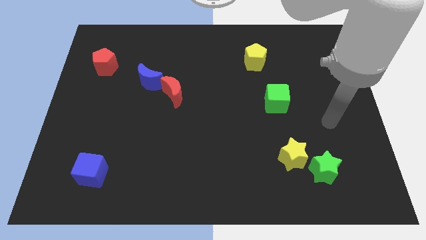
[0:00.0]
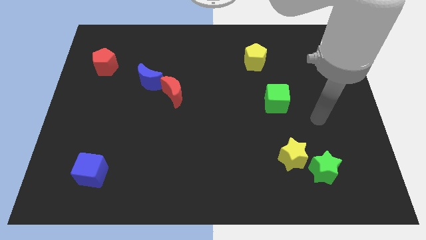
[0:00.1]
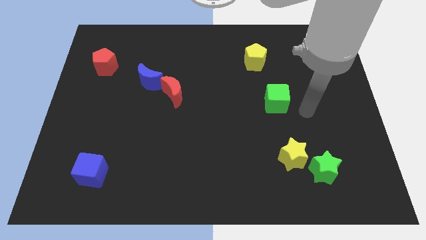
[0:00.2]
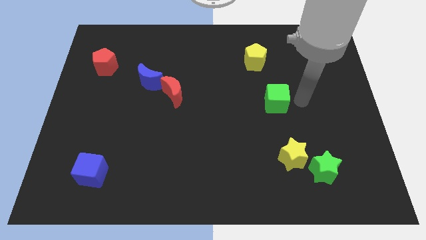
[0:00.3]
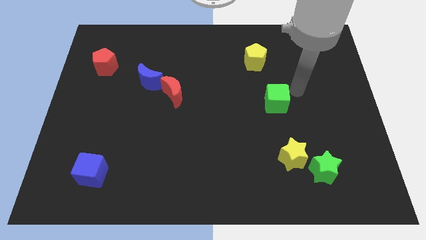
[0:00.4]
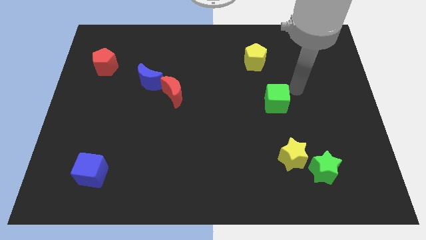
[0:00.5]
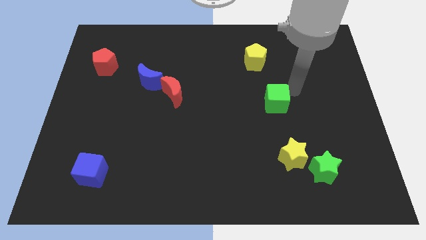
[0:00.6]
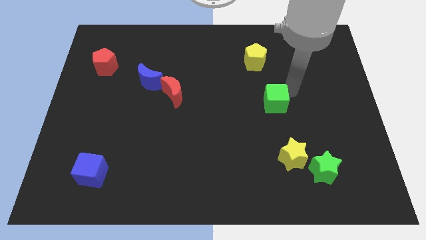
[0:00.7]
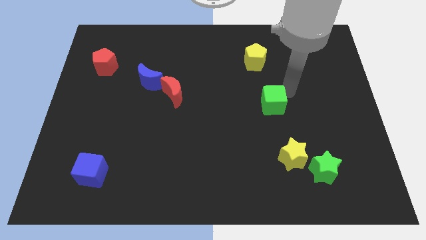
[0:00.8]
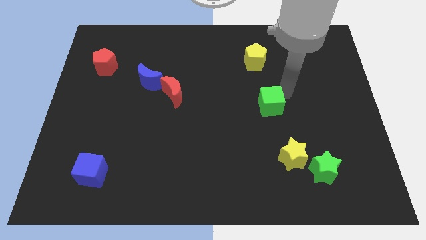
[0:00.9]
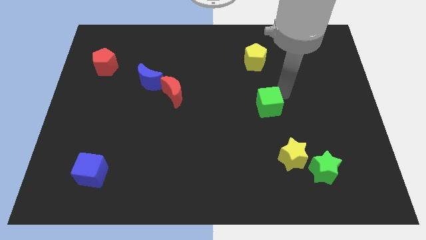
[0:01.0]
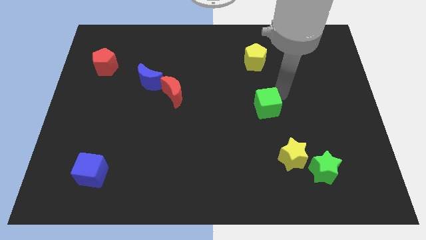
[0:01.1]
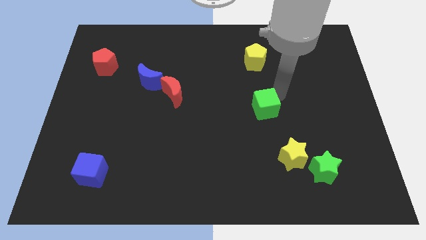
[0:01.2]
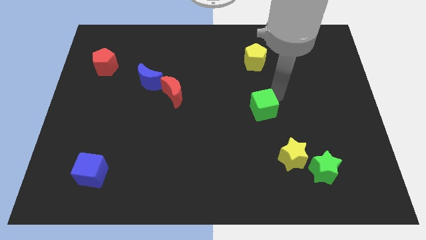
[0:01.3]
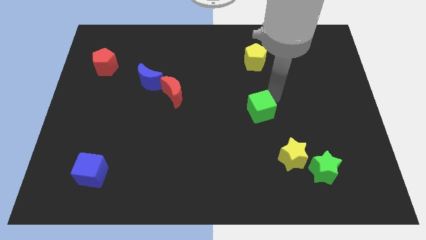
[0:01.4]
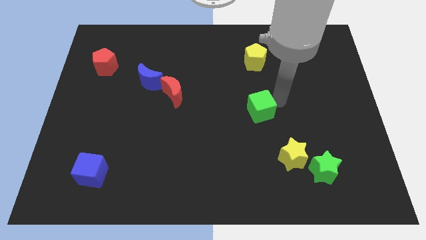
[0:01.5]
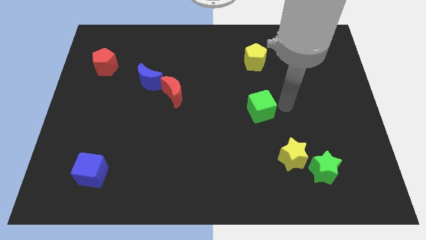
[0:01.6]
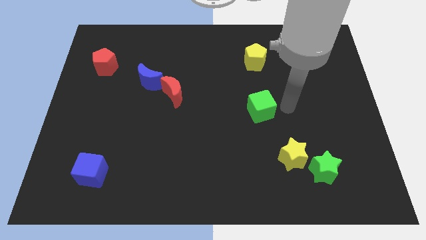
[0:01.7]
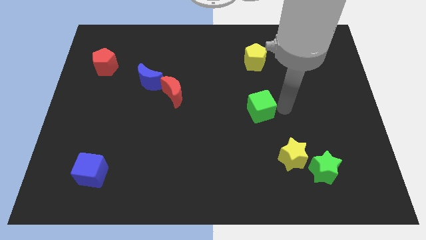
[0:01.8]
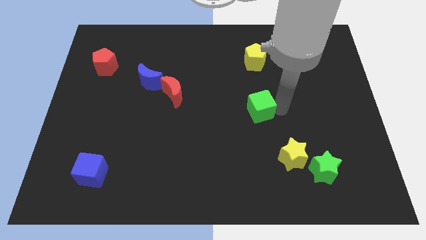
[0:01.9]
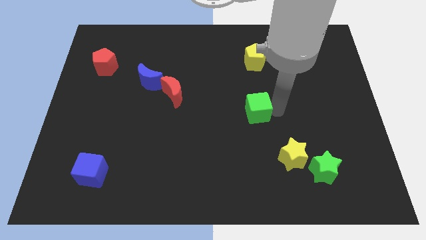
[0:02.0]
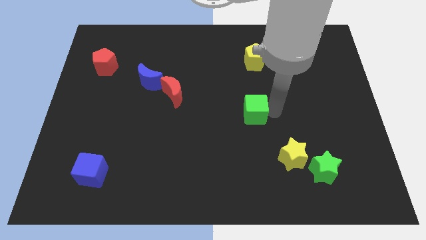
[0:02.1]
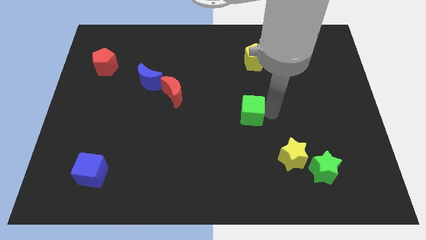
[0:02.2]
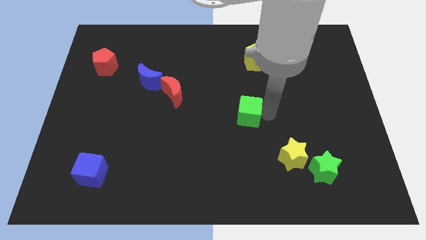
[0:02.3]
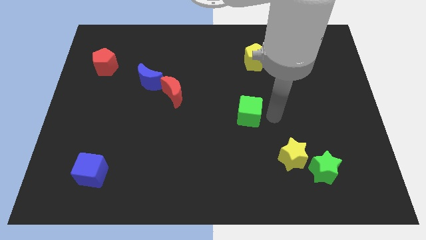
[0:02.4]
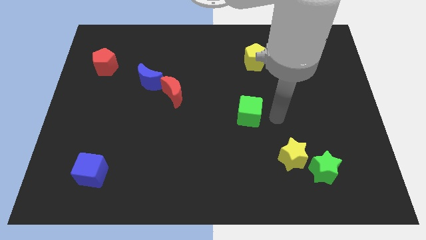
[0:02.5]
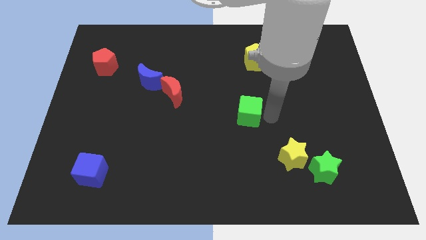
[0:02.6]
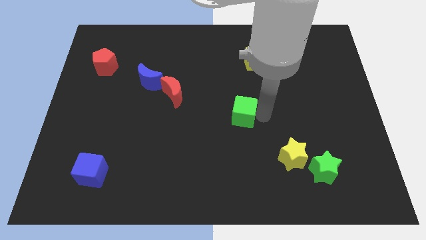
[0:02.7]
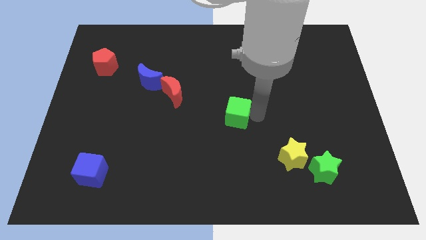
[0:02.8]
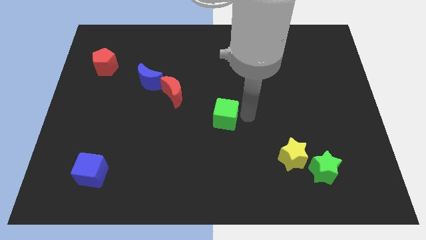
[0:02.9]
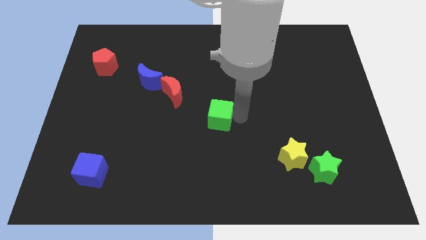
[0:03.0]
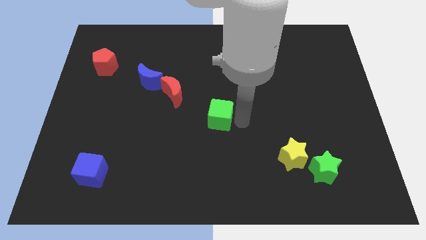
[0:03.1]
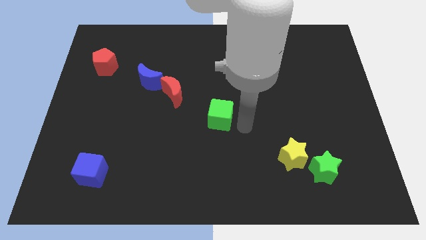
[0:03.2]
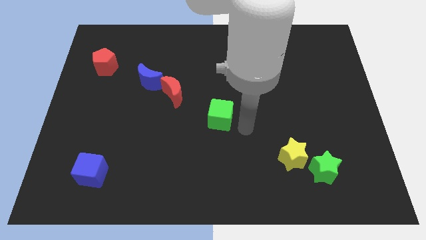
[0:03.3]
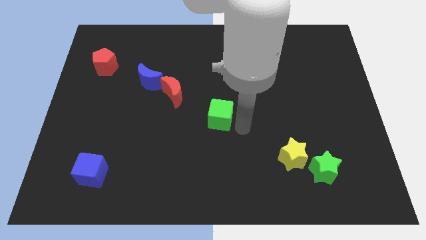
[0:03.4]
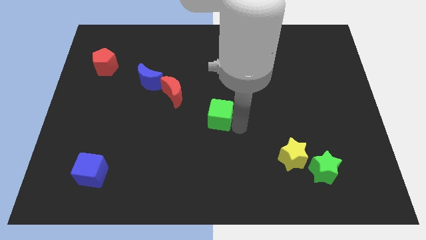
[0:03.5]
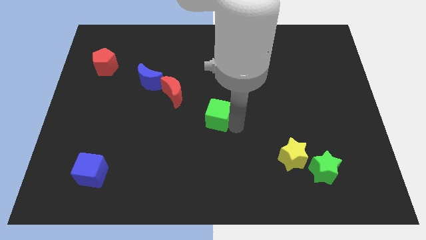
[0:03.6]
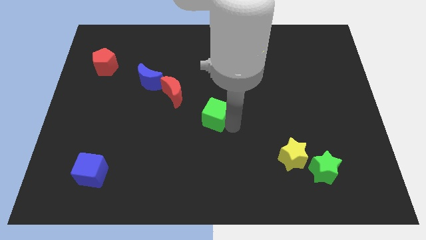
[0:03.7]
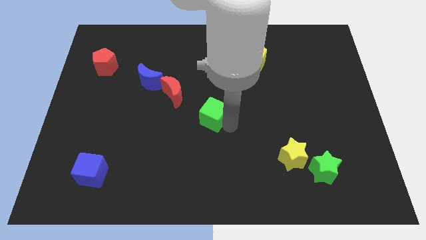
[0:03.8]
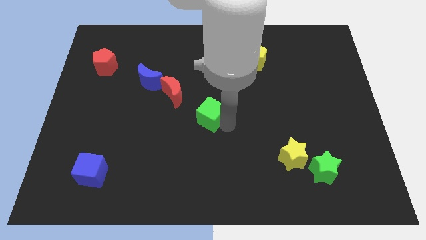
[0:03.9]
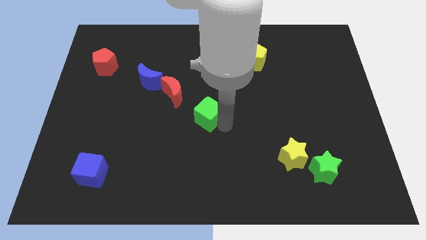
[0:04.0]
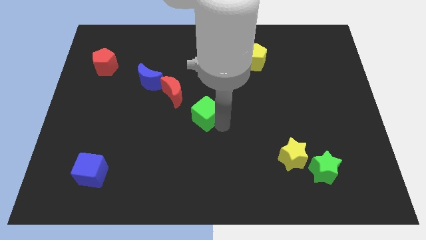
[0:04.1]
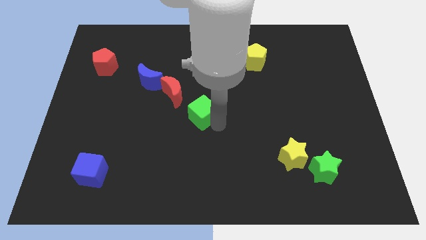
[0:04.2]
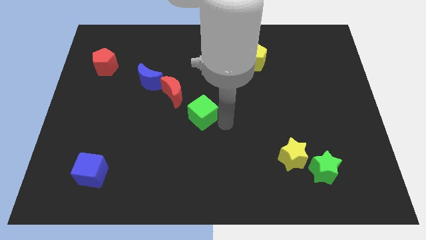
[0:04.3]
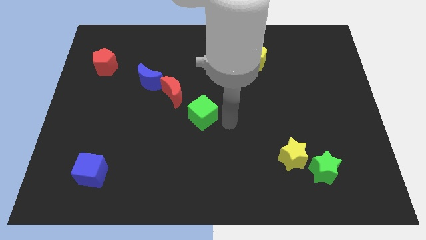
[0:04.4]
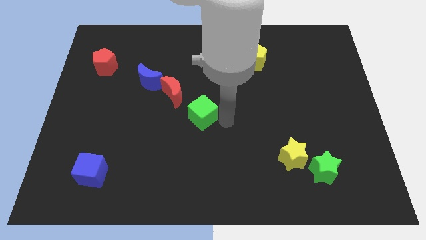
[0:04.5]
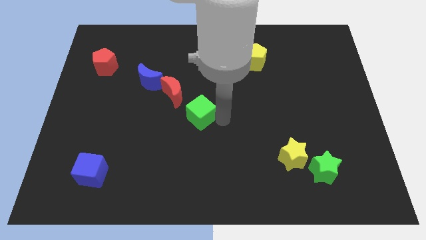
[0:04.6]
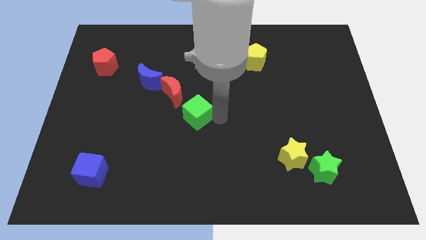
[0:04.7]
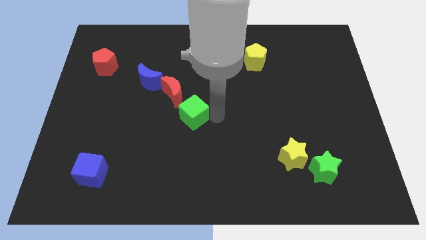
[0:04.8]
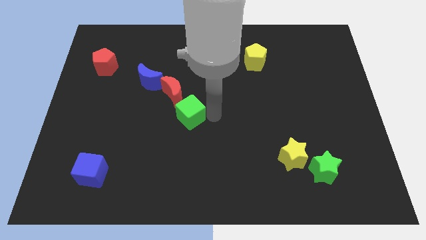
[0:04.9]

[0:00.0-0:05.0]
slide the green cube left

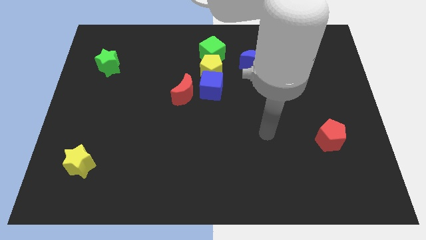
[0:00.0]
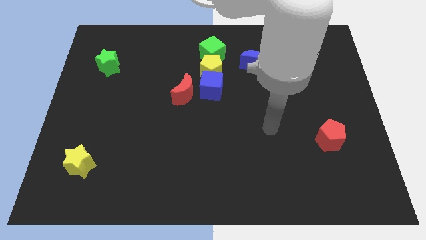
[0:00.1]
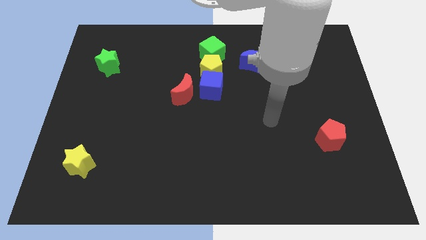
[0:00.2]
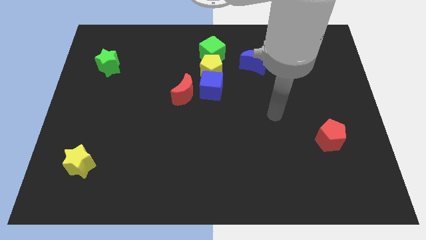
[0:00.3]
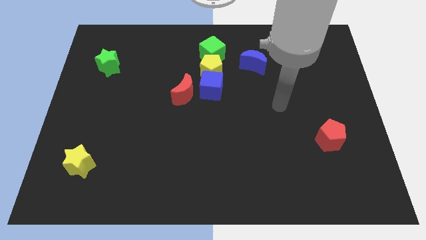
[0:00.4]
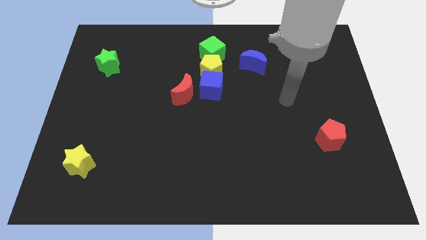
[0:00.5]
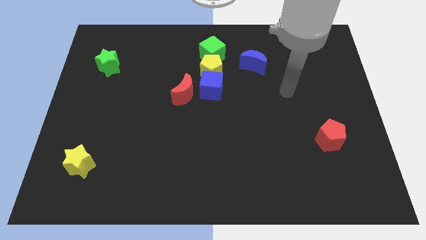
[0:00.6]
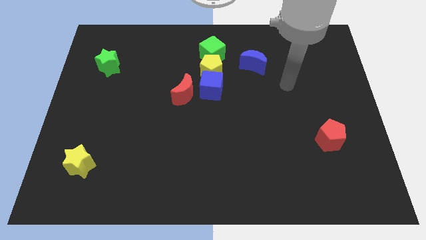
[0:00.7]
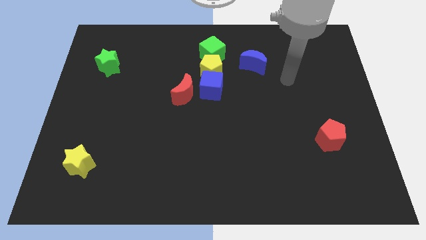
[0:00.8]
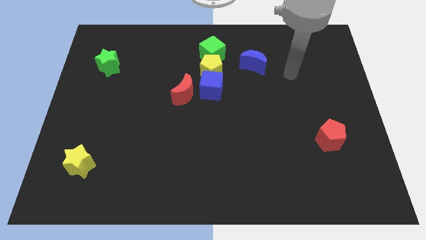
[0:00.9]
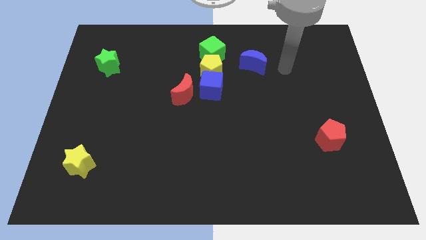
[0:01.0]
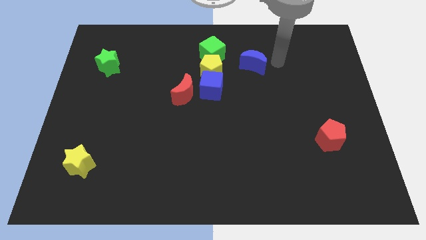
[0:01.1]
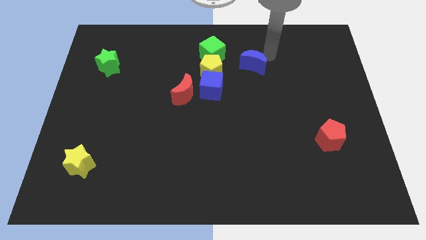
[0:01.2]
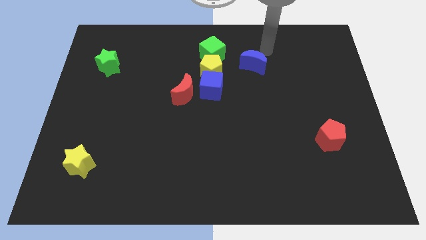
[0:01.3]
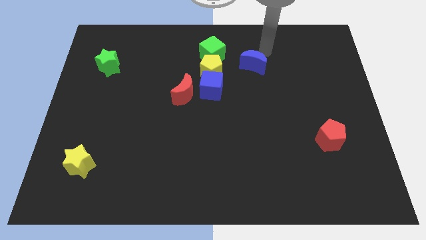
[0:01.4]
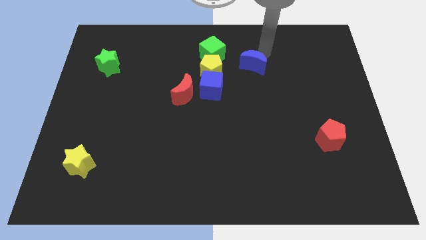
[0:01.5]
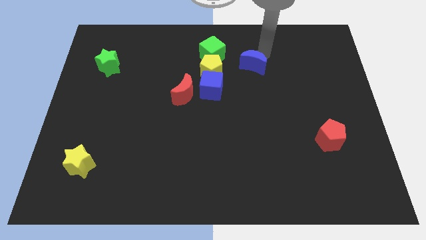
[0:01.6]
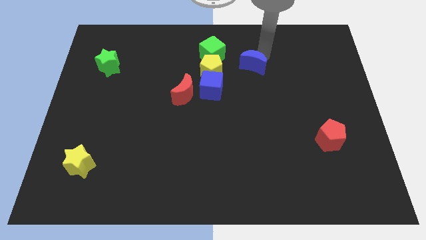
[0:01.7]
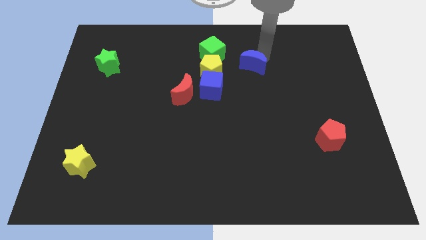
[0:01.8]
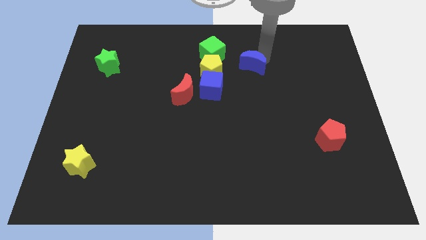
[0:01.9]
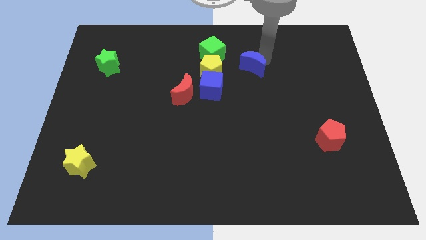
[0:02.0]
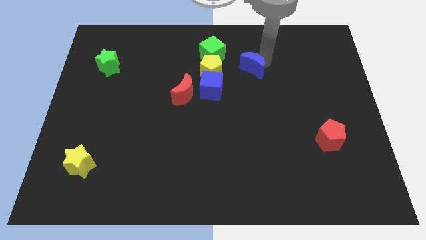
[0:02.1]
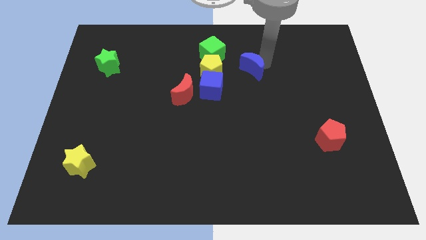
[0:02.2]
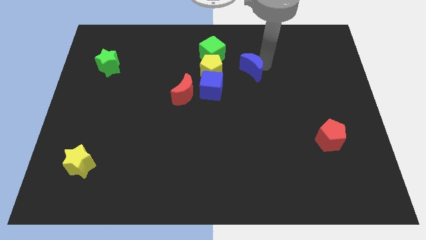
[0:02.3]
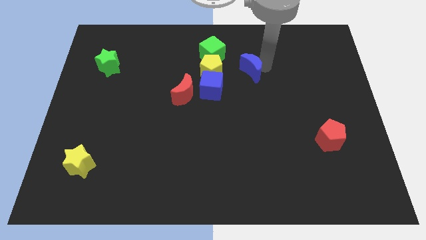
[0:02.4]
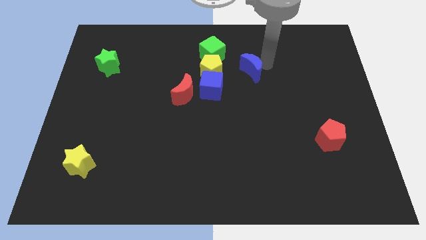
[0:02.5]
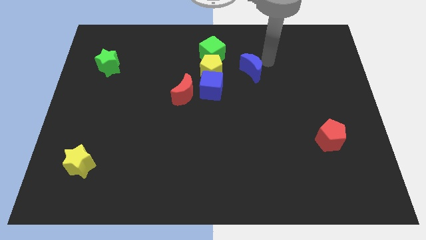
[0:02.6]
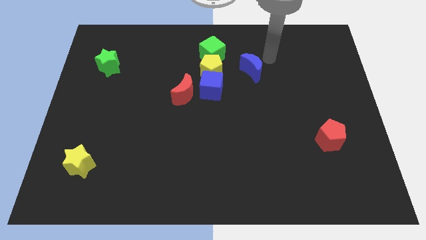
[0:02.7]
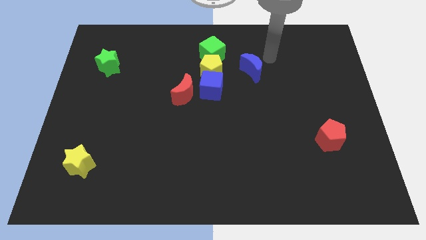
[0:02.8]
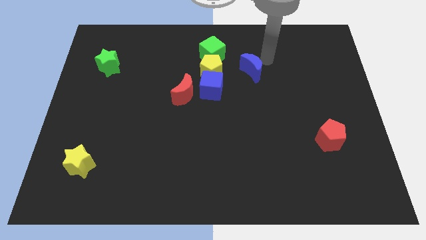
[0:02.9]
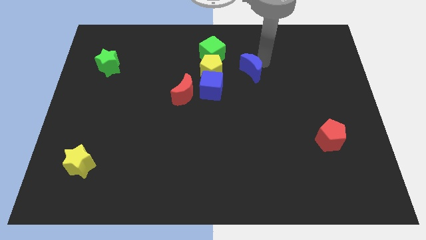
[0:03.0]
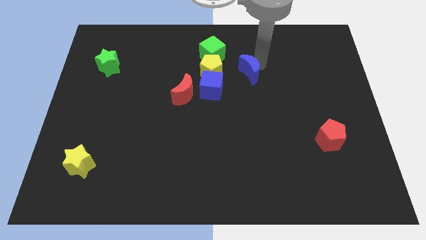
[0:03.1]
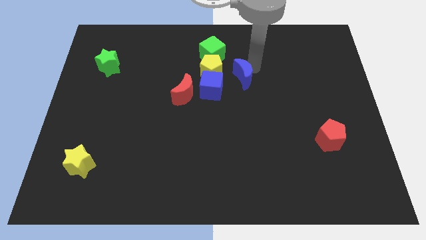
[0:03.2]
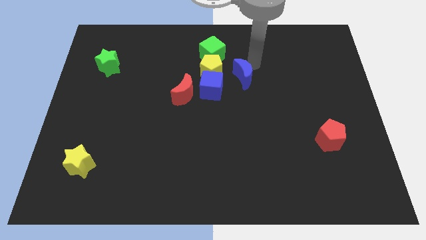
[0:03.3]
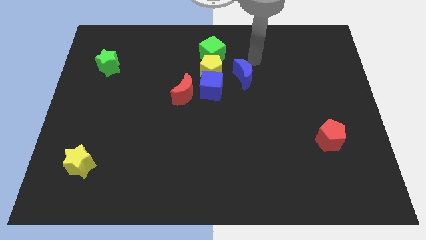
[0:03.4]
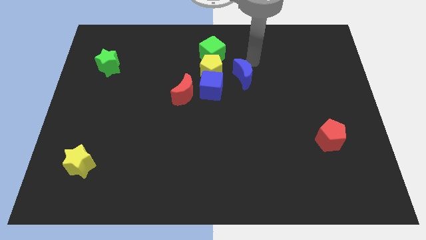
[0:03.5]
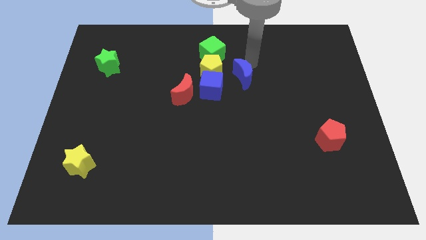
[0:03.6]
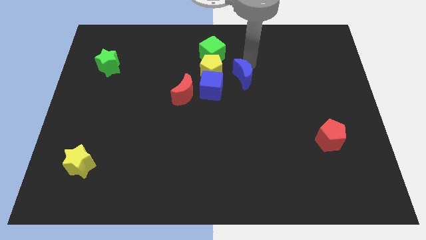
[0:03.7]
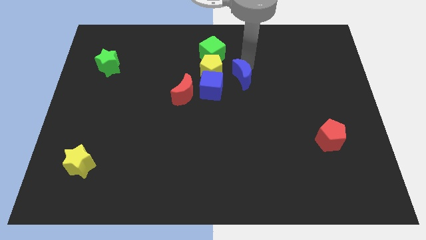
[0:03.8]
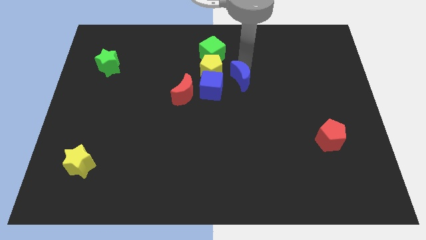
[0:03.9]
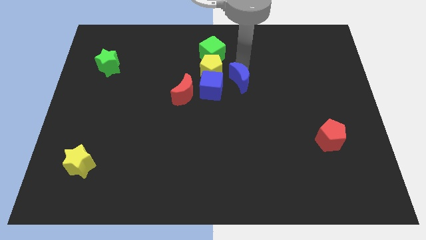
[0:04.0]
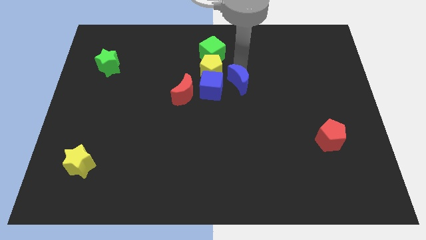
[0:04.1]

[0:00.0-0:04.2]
slide the blue moon slightly diagonally down and to the left
